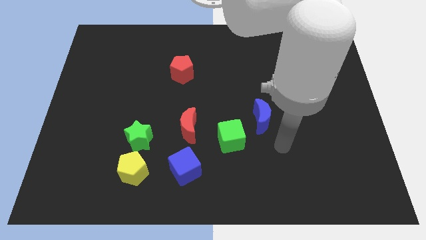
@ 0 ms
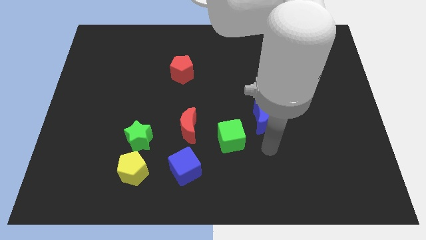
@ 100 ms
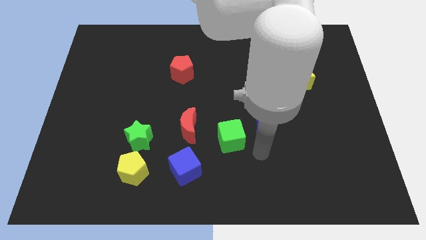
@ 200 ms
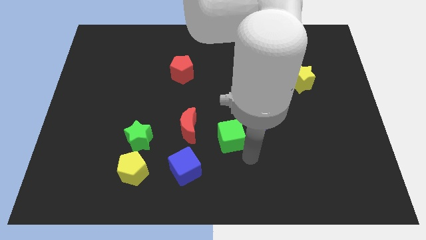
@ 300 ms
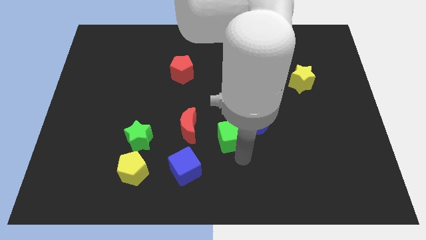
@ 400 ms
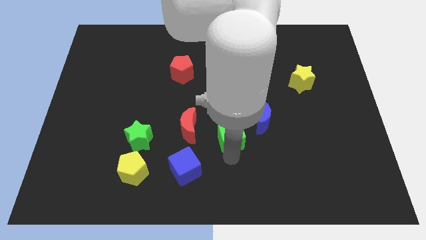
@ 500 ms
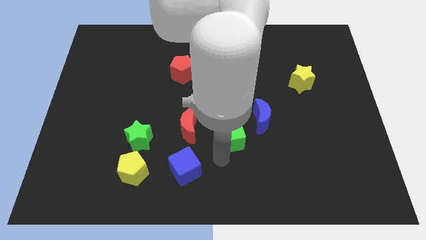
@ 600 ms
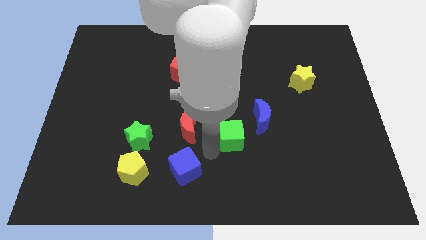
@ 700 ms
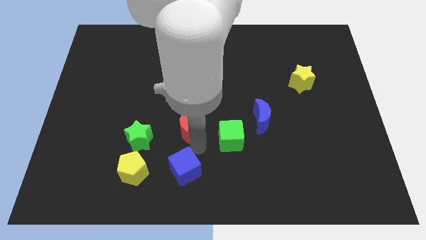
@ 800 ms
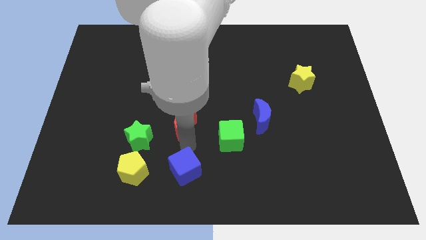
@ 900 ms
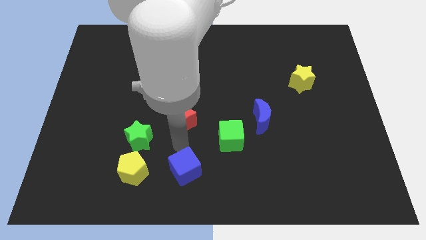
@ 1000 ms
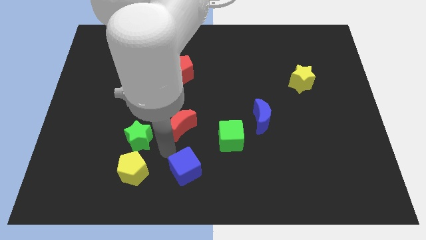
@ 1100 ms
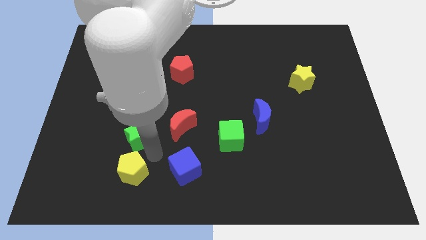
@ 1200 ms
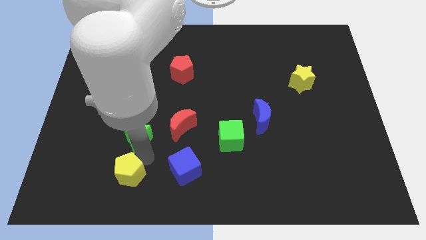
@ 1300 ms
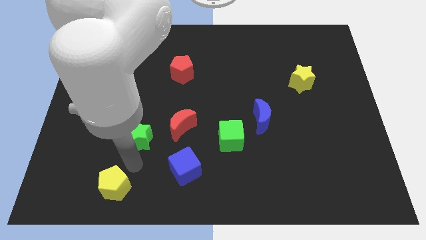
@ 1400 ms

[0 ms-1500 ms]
separate the green star from the yellow pentagon

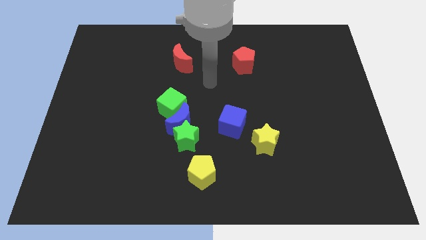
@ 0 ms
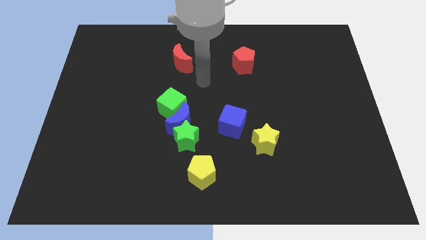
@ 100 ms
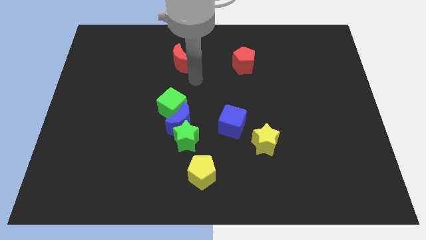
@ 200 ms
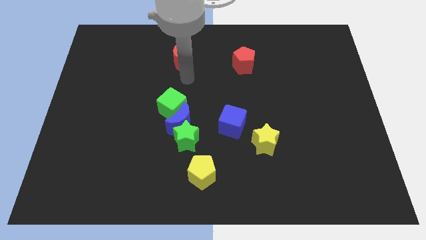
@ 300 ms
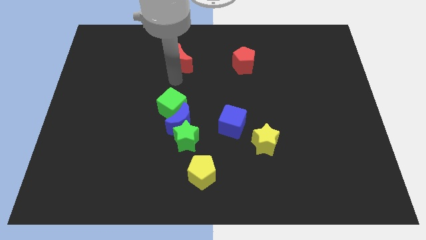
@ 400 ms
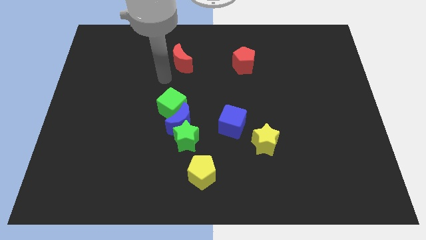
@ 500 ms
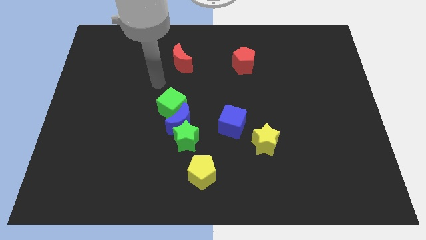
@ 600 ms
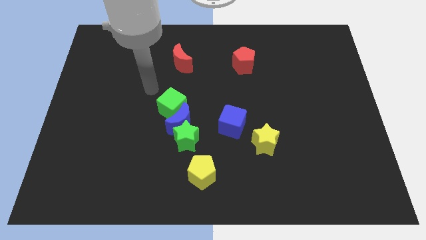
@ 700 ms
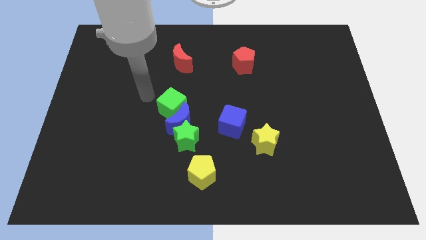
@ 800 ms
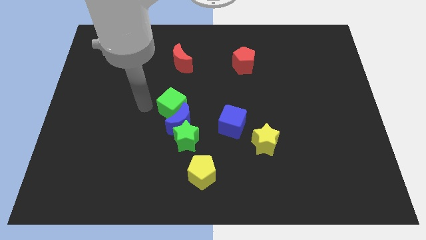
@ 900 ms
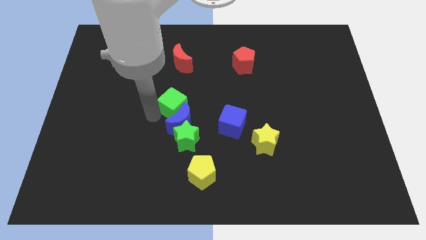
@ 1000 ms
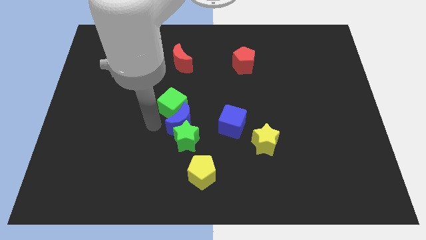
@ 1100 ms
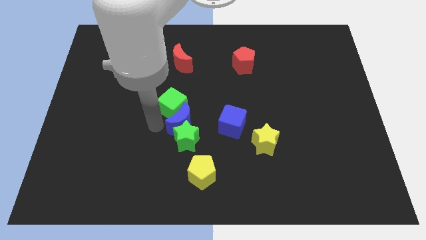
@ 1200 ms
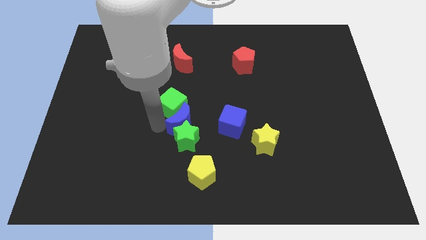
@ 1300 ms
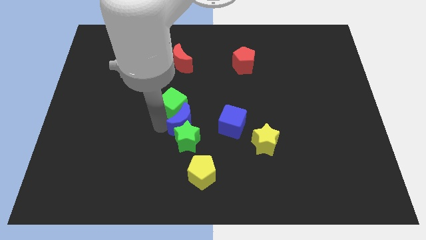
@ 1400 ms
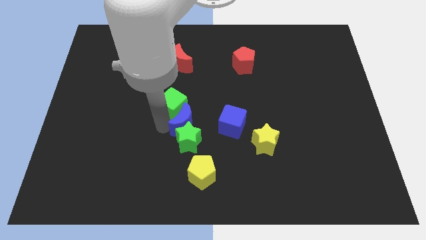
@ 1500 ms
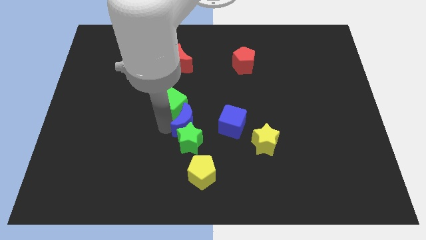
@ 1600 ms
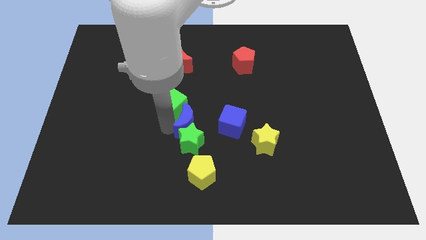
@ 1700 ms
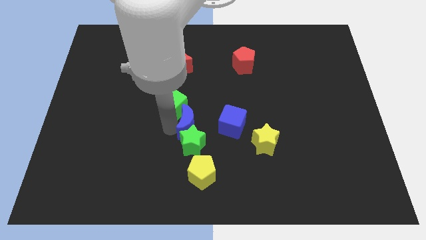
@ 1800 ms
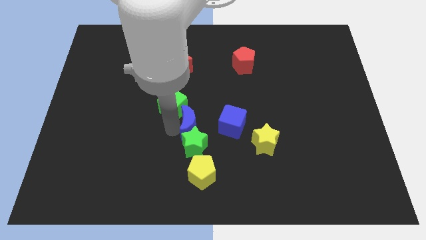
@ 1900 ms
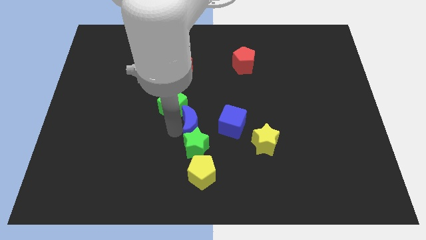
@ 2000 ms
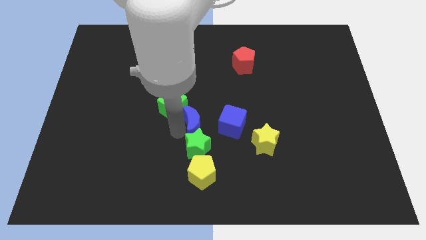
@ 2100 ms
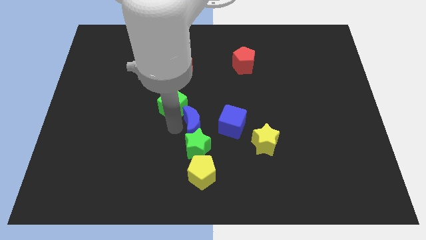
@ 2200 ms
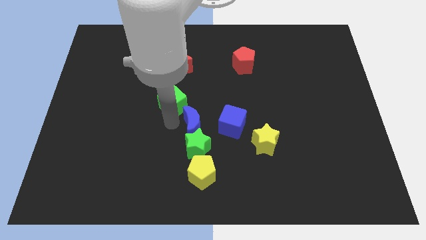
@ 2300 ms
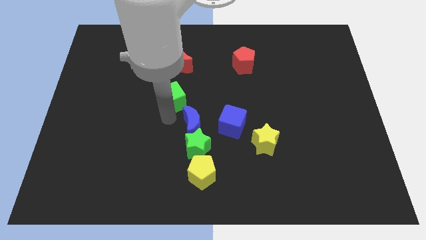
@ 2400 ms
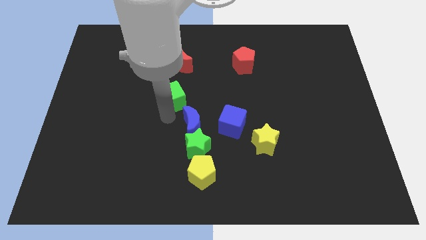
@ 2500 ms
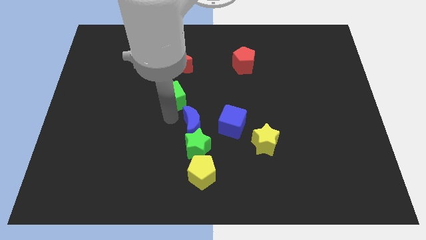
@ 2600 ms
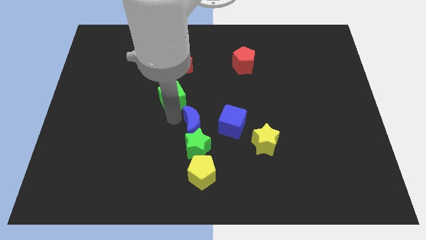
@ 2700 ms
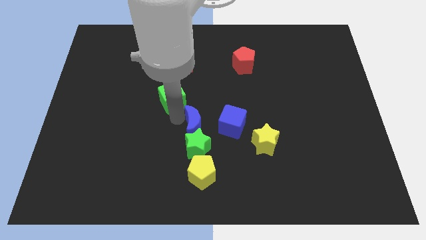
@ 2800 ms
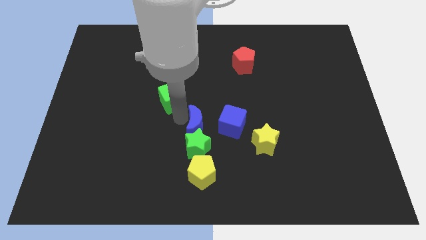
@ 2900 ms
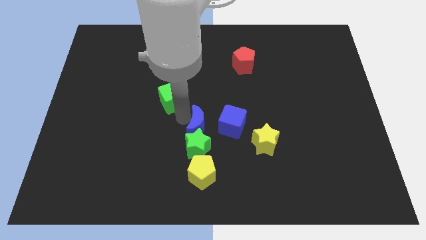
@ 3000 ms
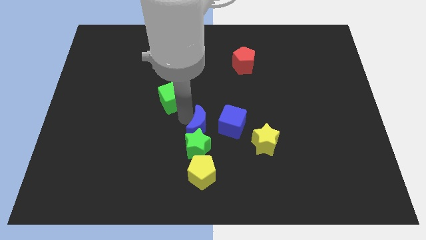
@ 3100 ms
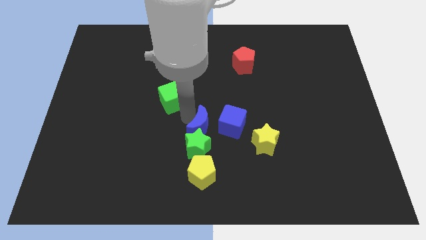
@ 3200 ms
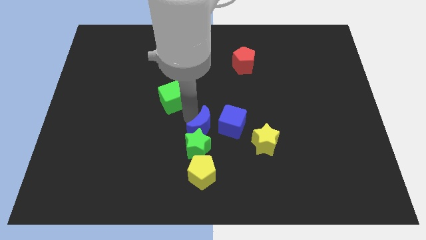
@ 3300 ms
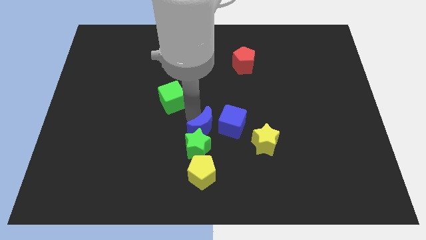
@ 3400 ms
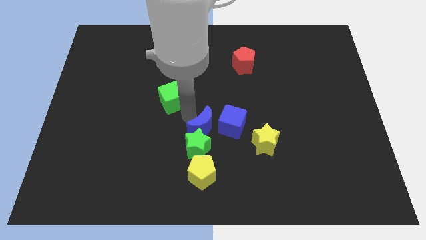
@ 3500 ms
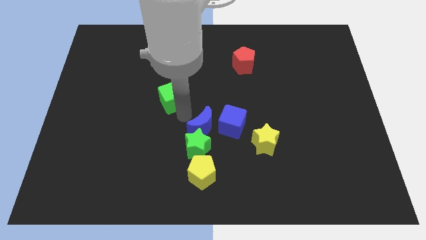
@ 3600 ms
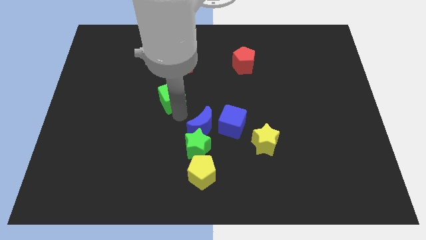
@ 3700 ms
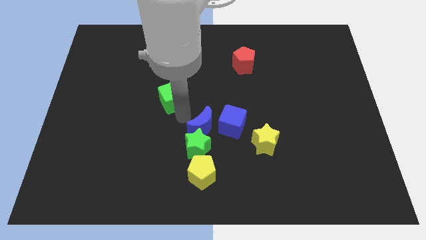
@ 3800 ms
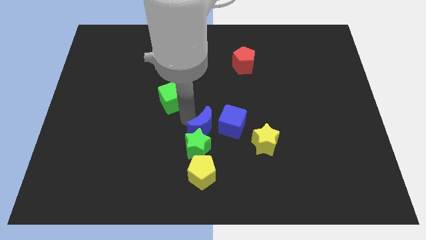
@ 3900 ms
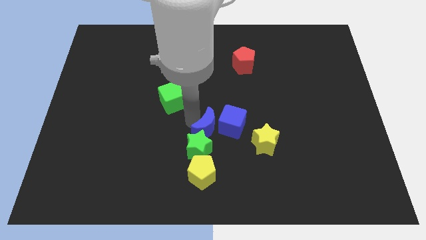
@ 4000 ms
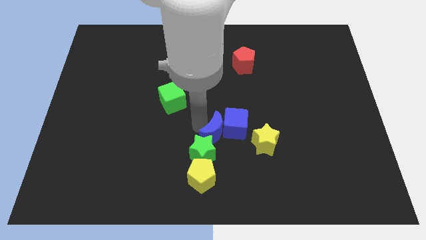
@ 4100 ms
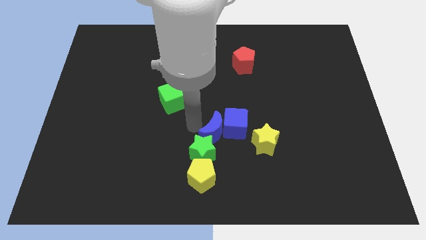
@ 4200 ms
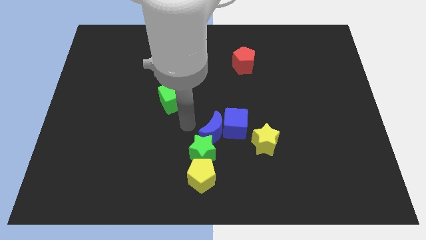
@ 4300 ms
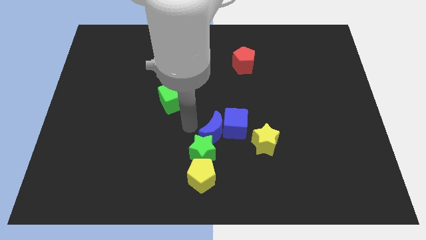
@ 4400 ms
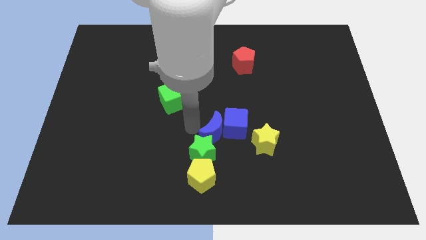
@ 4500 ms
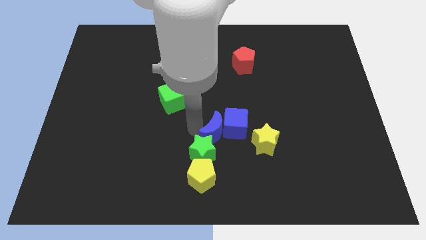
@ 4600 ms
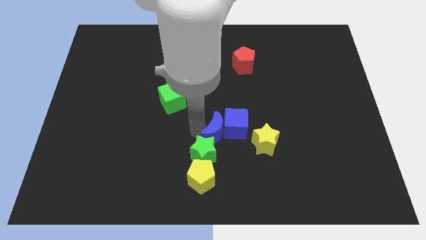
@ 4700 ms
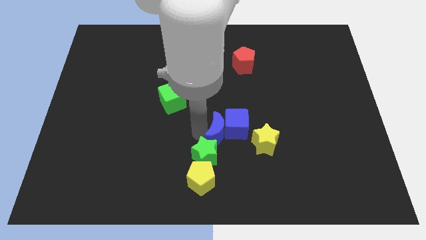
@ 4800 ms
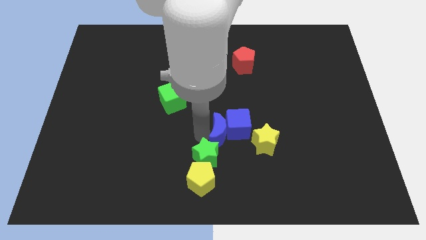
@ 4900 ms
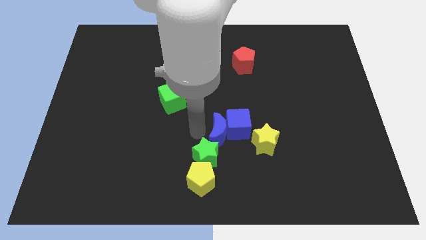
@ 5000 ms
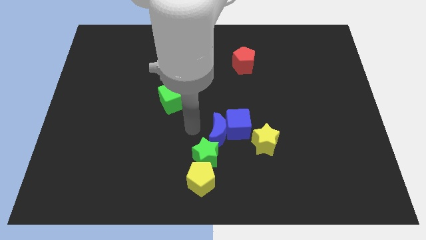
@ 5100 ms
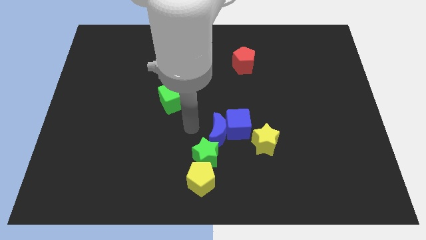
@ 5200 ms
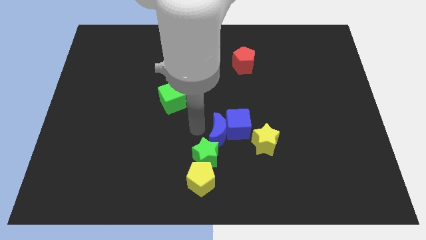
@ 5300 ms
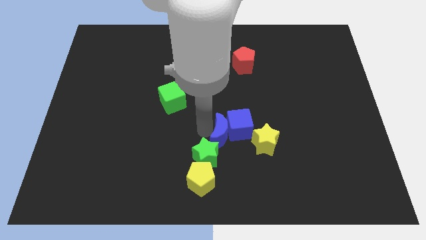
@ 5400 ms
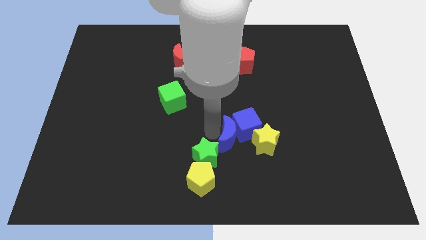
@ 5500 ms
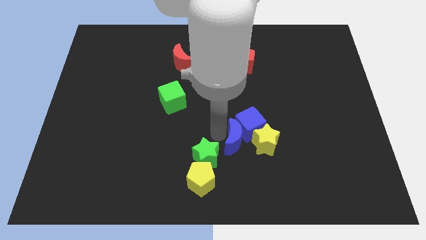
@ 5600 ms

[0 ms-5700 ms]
pull the blue moon apart from the green star and green cube

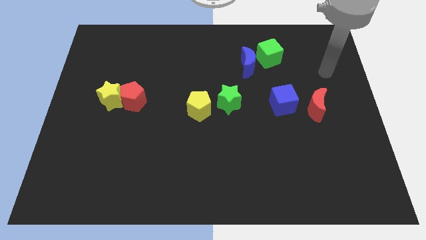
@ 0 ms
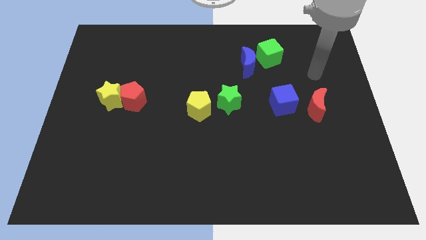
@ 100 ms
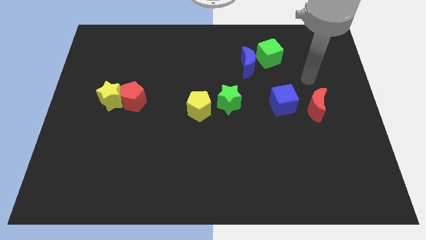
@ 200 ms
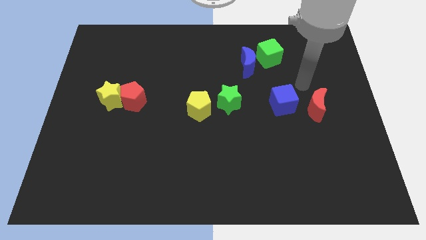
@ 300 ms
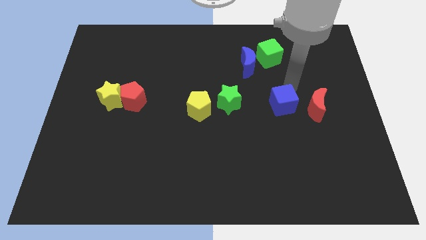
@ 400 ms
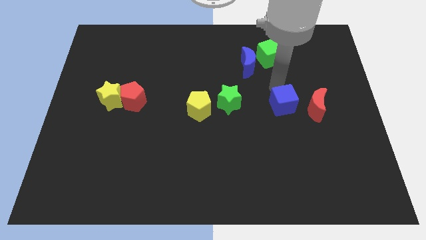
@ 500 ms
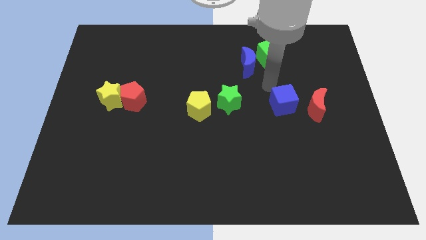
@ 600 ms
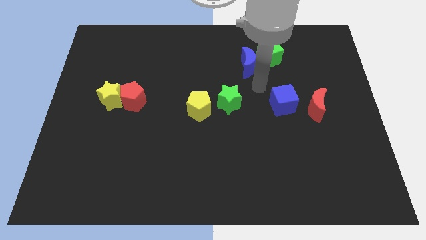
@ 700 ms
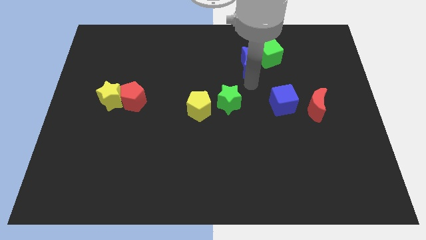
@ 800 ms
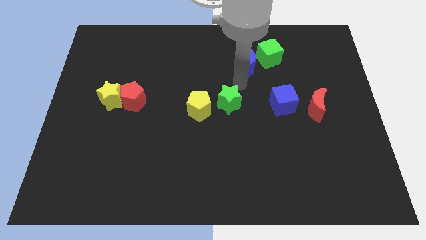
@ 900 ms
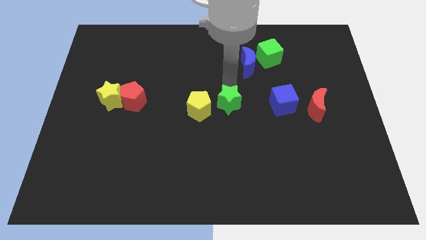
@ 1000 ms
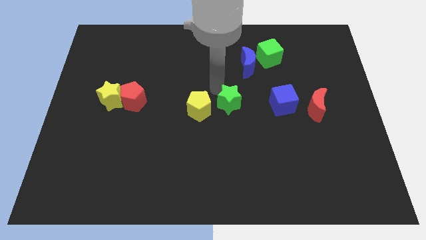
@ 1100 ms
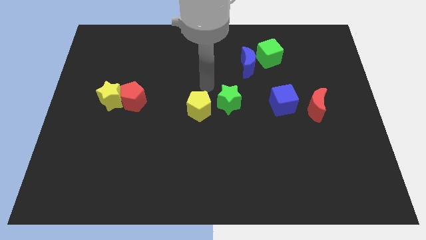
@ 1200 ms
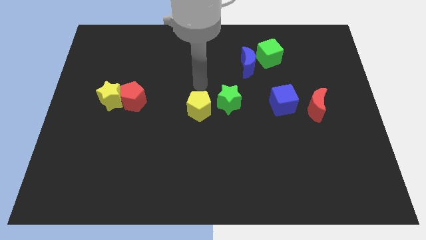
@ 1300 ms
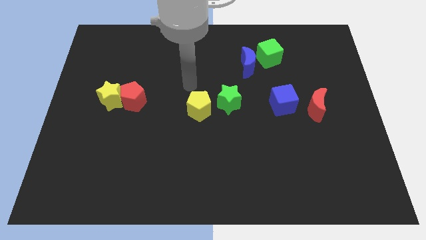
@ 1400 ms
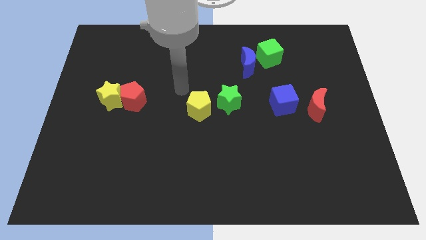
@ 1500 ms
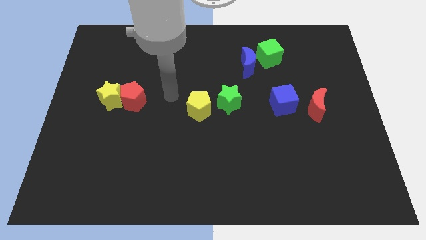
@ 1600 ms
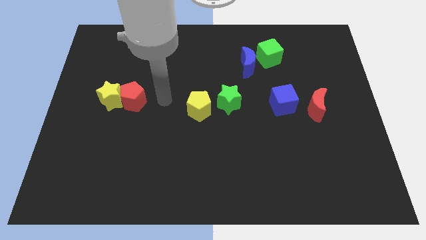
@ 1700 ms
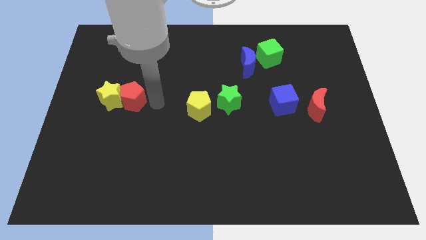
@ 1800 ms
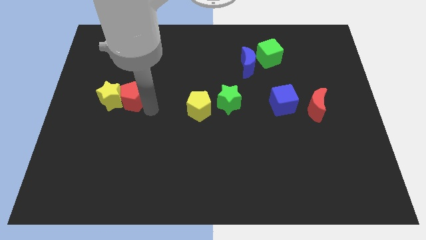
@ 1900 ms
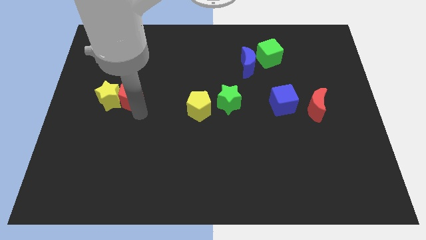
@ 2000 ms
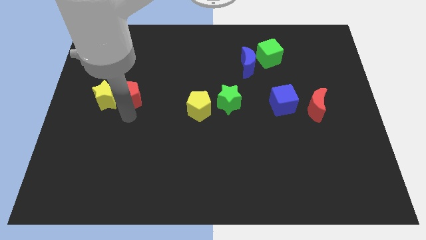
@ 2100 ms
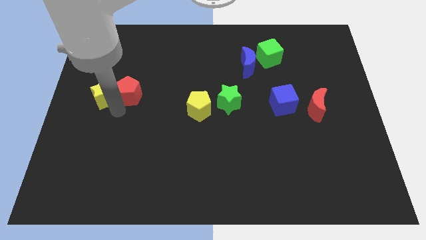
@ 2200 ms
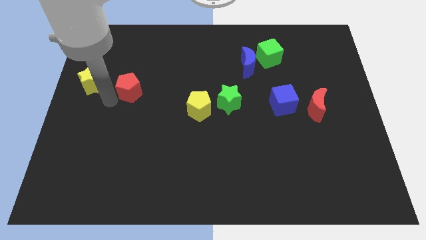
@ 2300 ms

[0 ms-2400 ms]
pull the red pentagon apart from the yellow star
